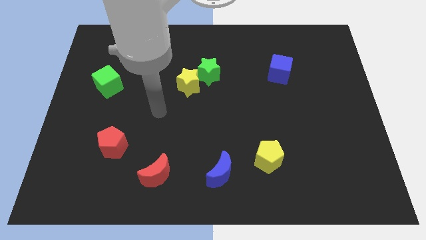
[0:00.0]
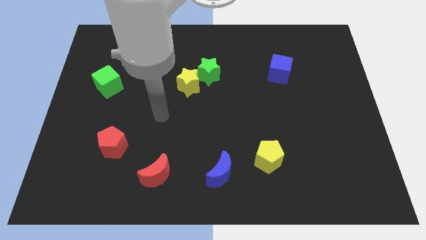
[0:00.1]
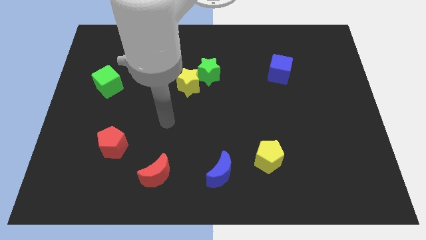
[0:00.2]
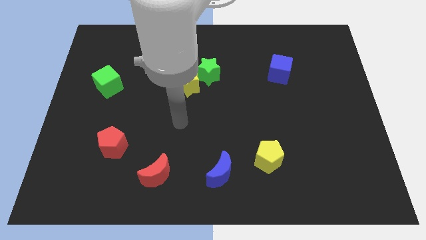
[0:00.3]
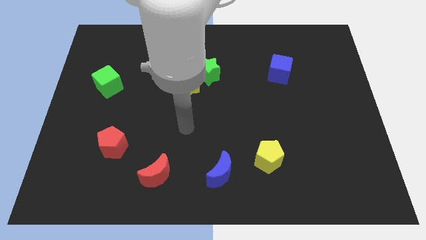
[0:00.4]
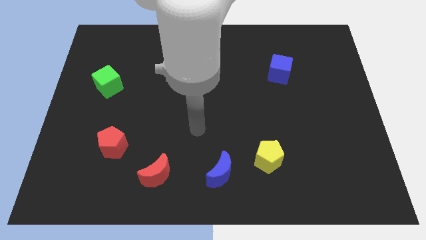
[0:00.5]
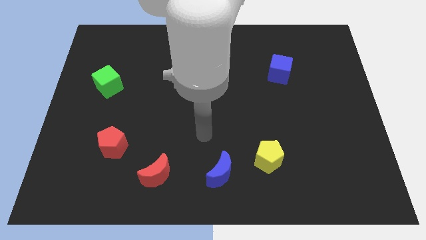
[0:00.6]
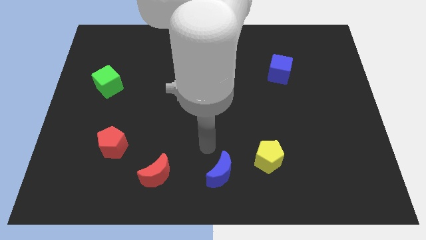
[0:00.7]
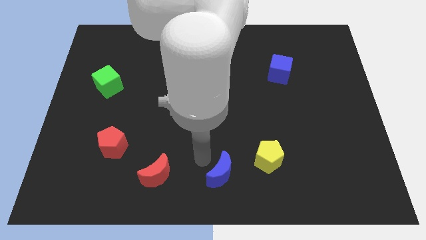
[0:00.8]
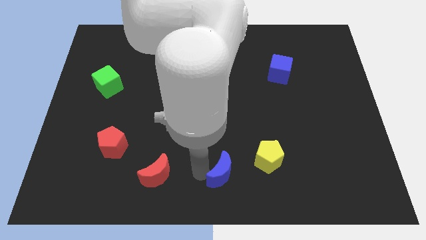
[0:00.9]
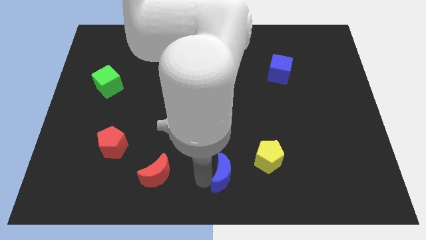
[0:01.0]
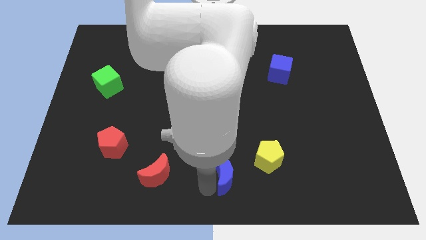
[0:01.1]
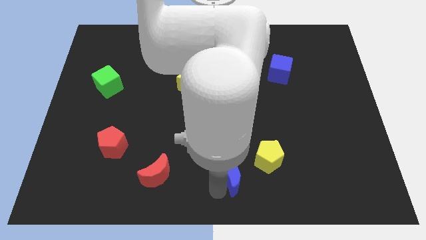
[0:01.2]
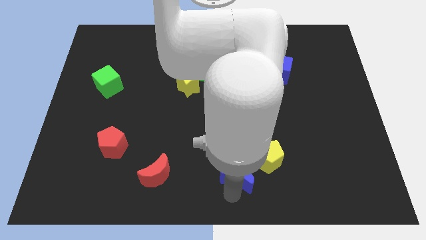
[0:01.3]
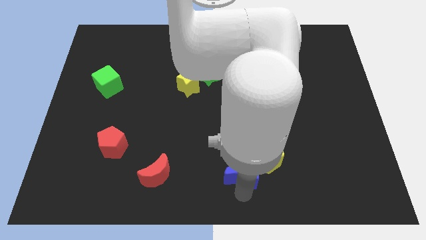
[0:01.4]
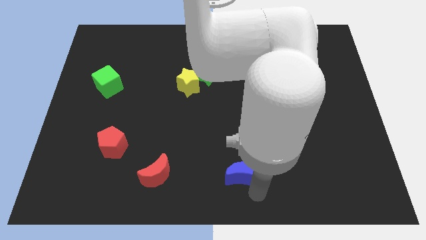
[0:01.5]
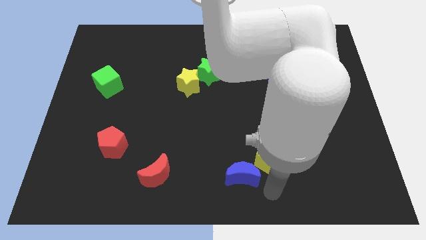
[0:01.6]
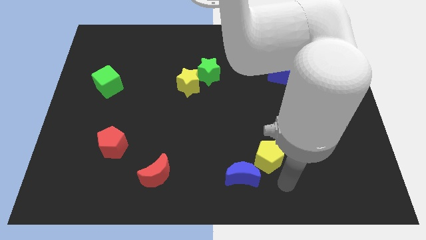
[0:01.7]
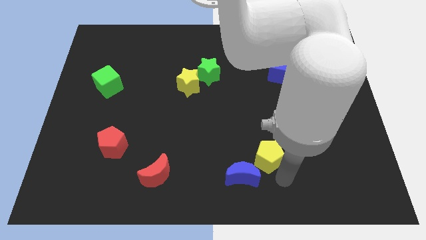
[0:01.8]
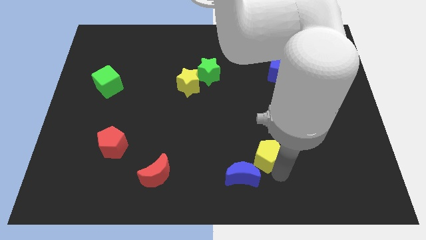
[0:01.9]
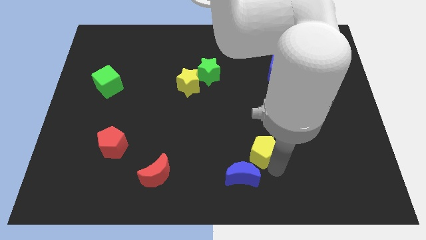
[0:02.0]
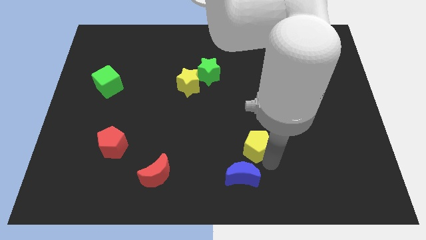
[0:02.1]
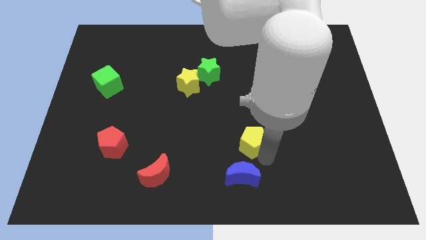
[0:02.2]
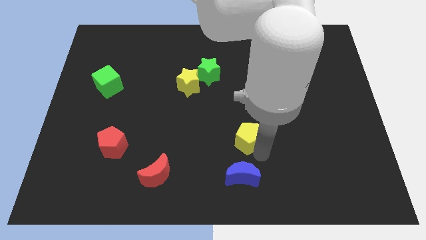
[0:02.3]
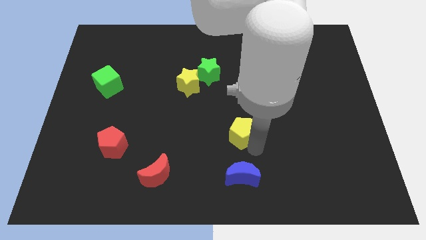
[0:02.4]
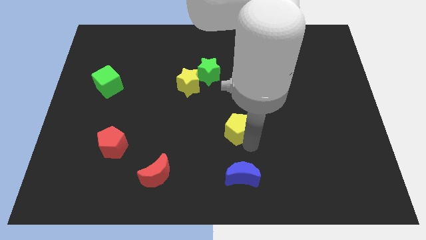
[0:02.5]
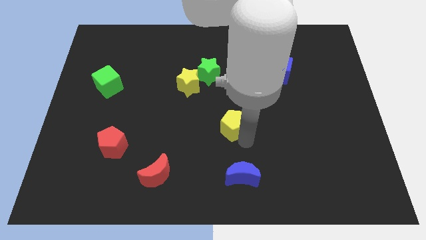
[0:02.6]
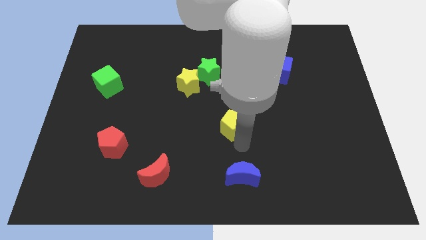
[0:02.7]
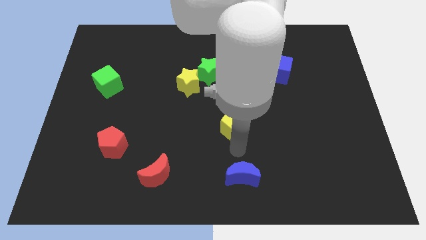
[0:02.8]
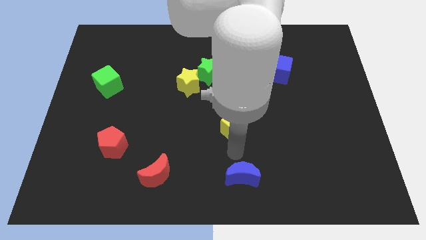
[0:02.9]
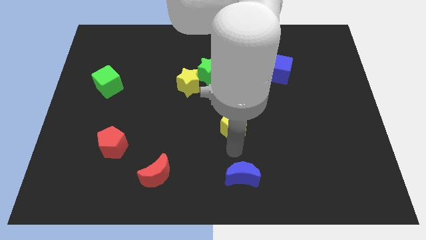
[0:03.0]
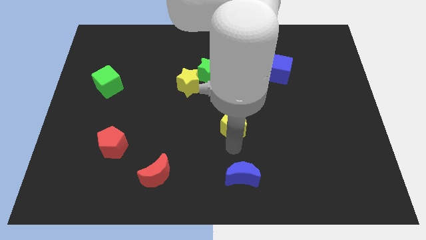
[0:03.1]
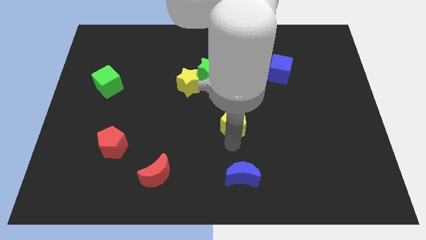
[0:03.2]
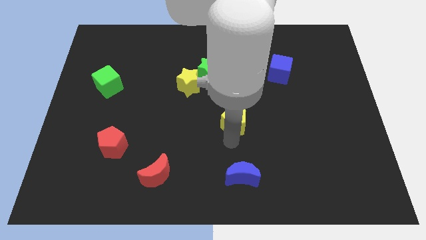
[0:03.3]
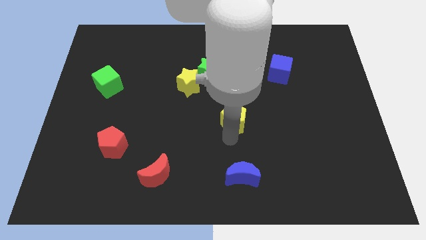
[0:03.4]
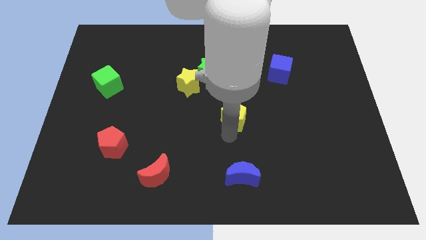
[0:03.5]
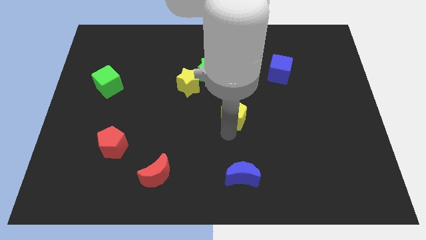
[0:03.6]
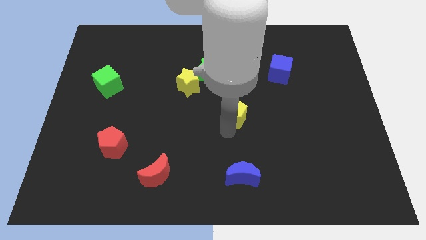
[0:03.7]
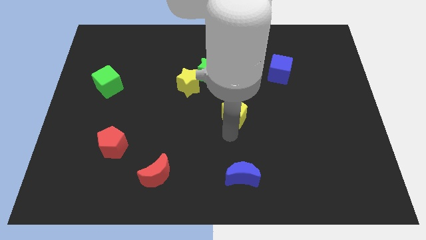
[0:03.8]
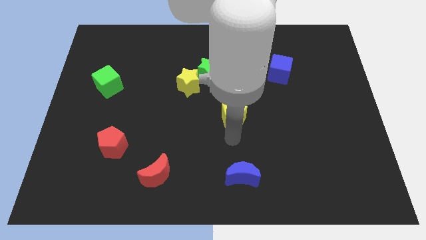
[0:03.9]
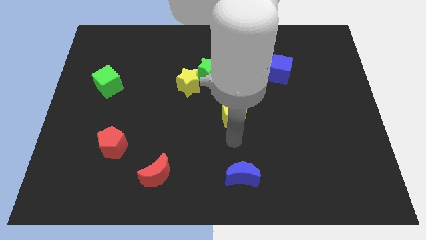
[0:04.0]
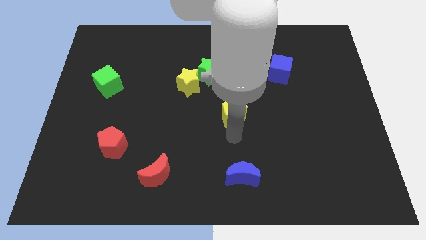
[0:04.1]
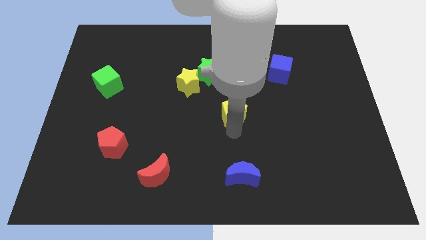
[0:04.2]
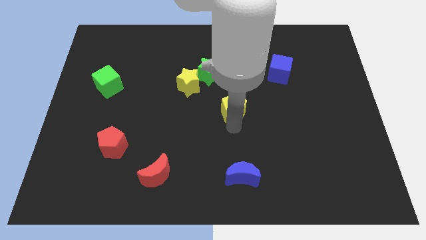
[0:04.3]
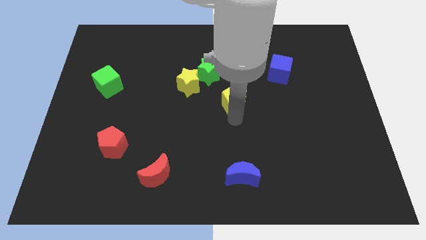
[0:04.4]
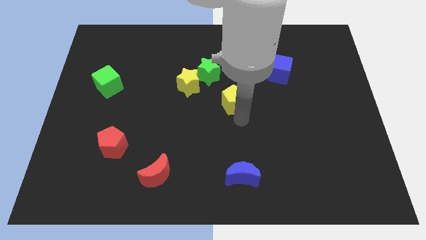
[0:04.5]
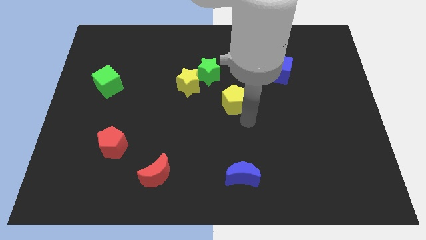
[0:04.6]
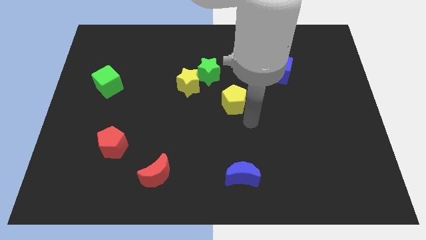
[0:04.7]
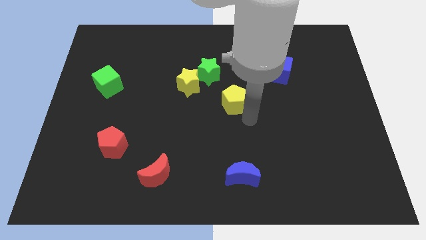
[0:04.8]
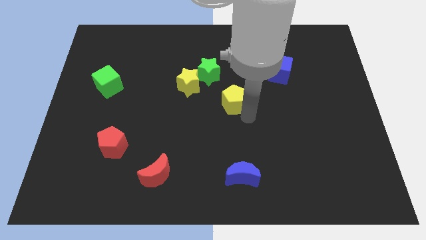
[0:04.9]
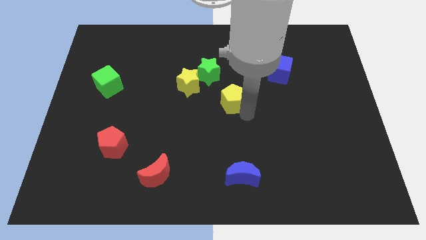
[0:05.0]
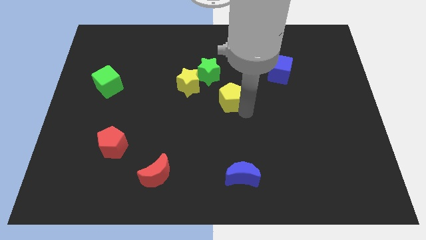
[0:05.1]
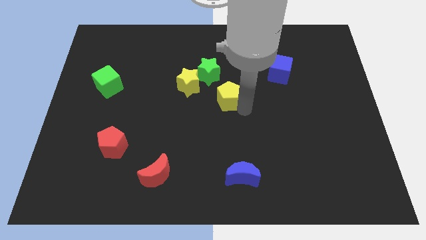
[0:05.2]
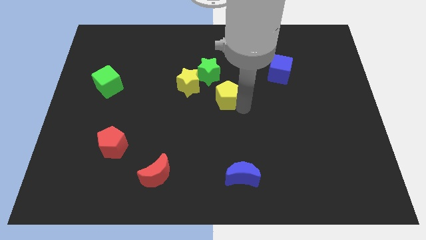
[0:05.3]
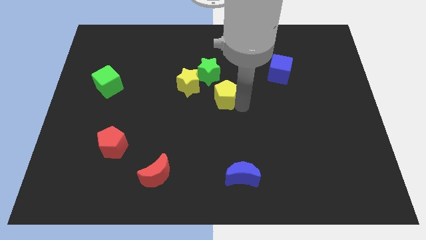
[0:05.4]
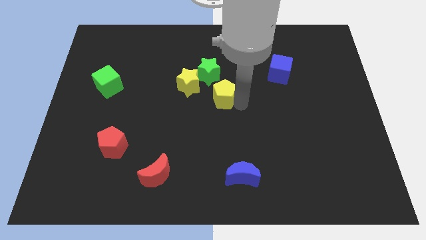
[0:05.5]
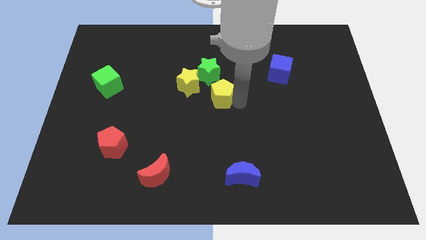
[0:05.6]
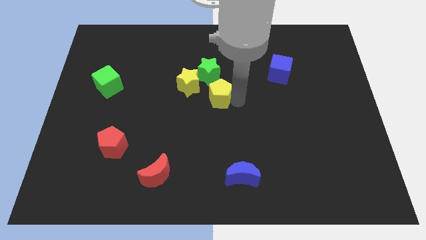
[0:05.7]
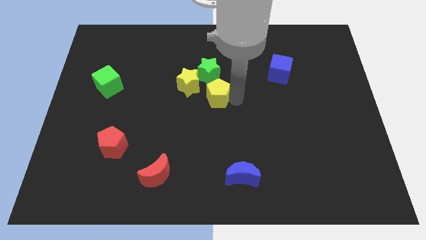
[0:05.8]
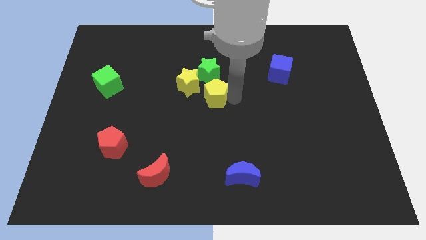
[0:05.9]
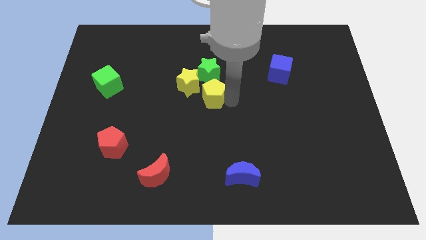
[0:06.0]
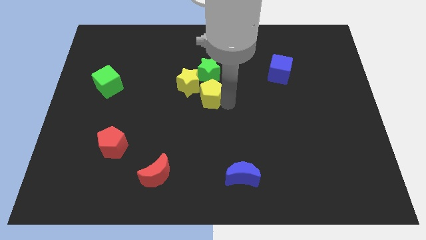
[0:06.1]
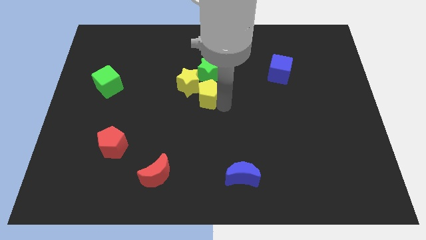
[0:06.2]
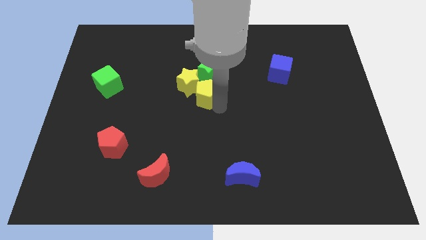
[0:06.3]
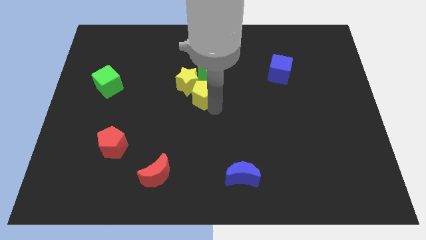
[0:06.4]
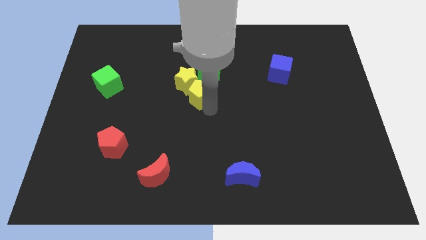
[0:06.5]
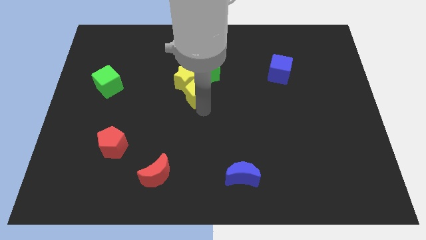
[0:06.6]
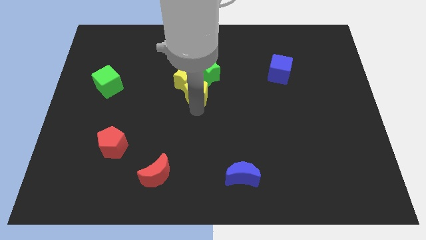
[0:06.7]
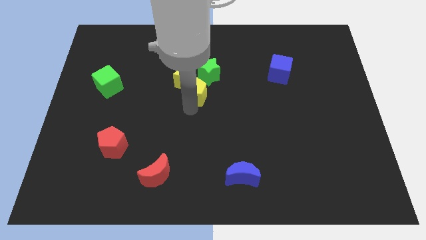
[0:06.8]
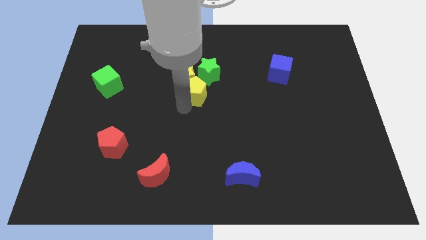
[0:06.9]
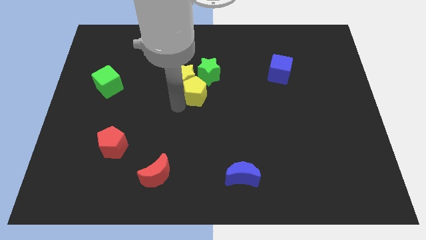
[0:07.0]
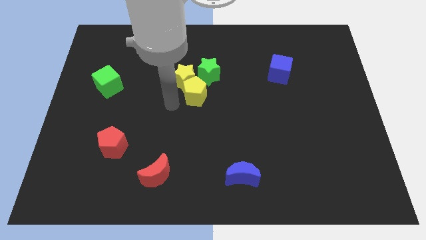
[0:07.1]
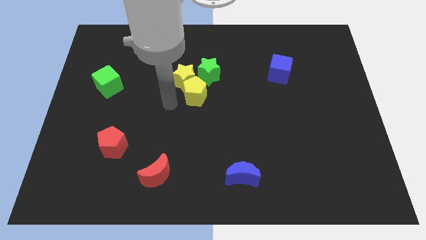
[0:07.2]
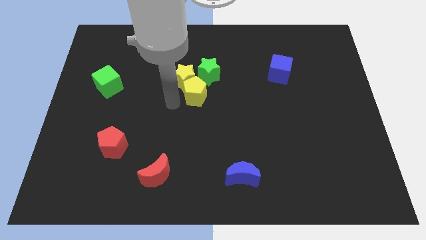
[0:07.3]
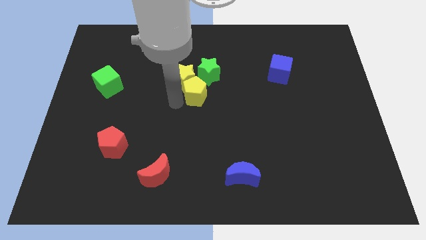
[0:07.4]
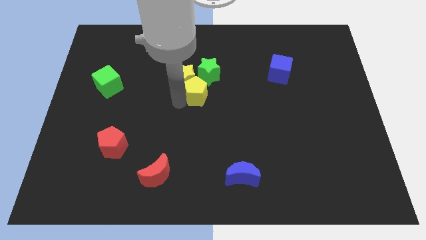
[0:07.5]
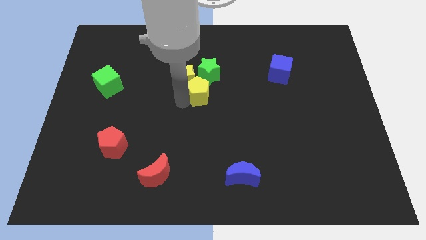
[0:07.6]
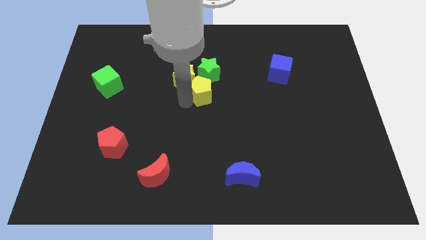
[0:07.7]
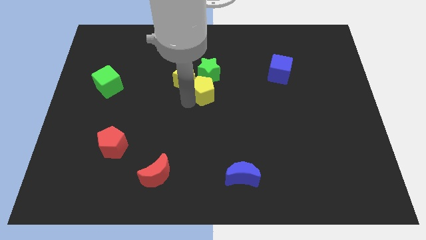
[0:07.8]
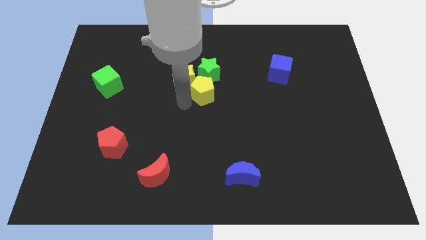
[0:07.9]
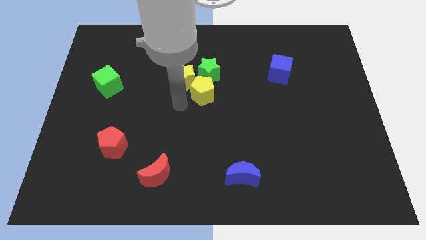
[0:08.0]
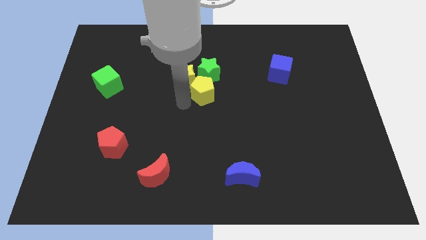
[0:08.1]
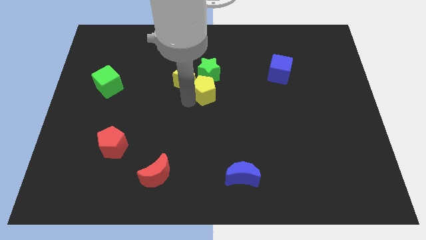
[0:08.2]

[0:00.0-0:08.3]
put the yellow pentagon next to the green star
